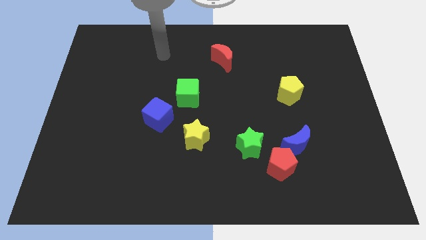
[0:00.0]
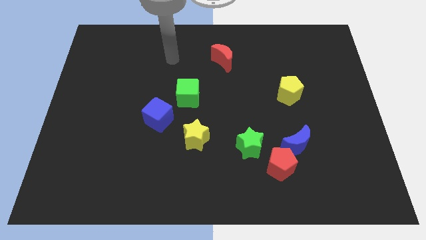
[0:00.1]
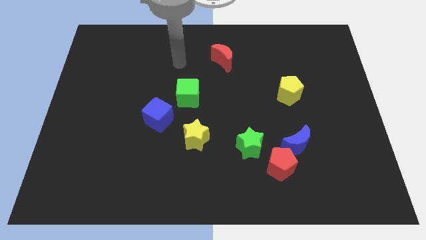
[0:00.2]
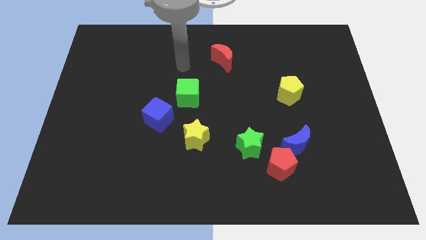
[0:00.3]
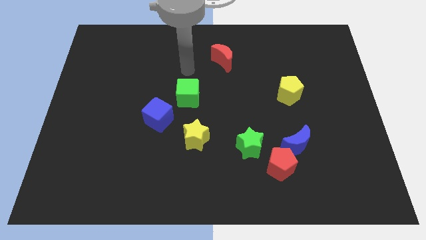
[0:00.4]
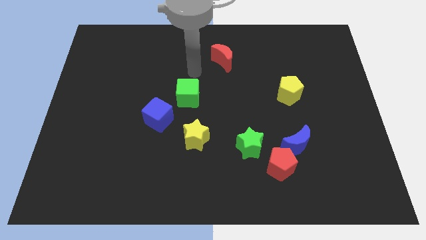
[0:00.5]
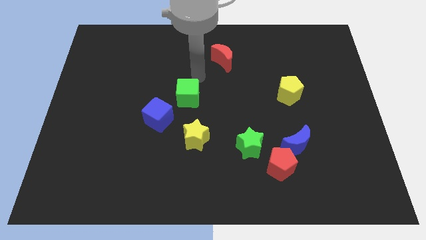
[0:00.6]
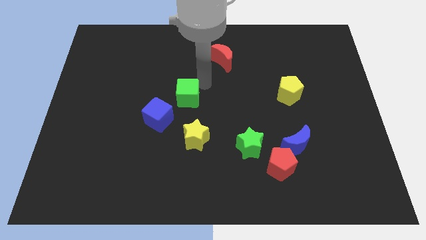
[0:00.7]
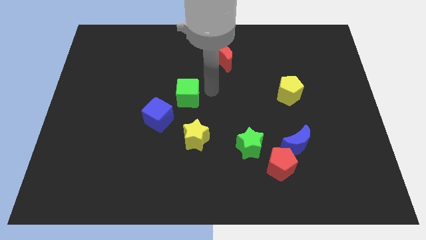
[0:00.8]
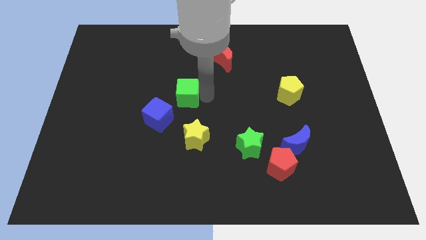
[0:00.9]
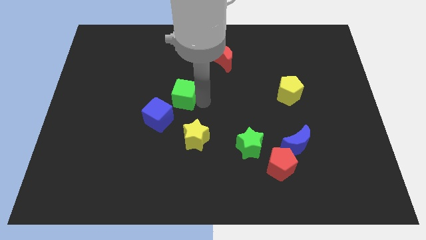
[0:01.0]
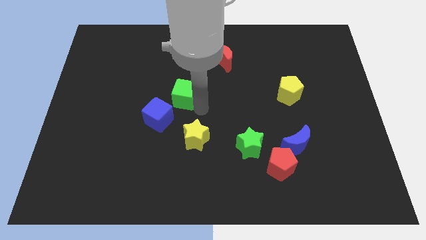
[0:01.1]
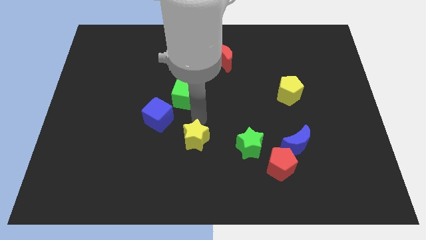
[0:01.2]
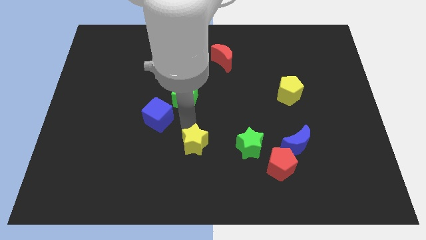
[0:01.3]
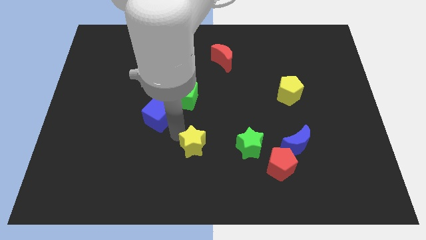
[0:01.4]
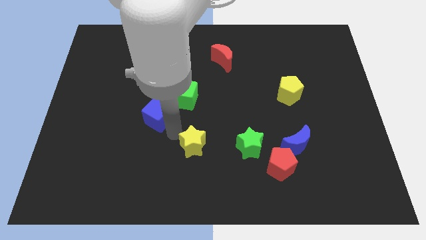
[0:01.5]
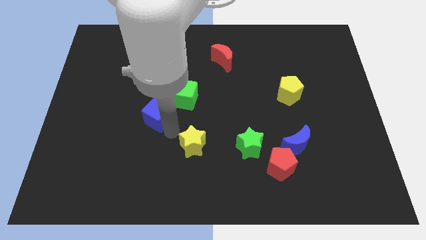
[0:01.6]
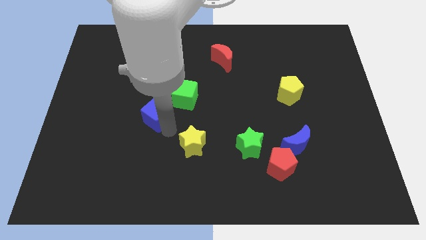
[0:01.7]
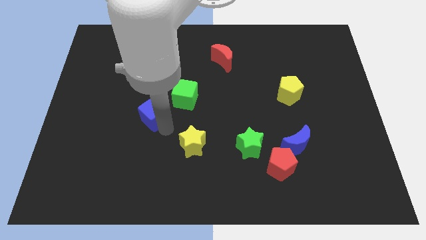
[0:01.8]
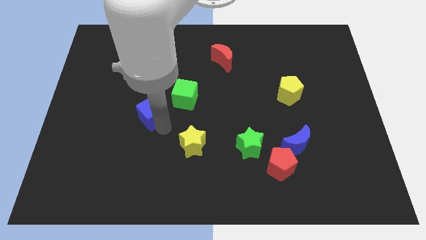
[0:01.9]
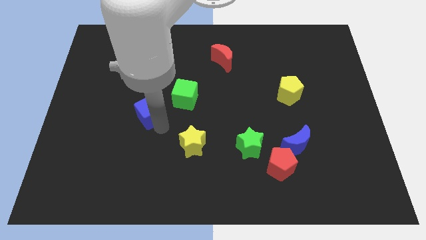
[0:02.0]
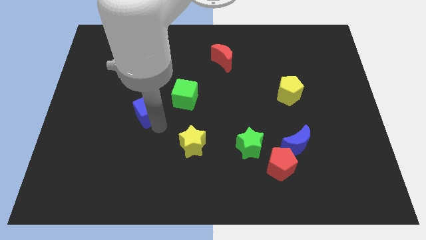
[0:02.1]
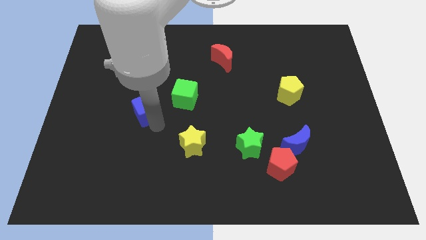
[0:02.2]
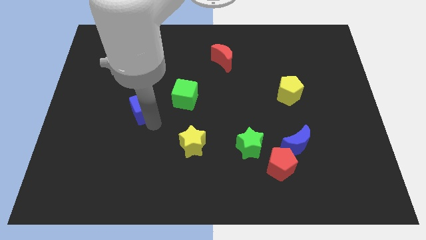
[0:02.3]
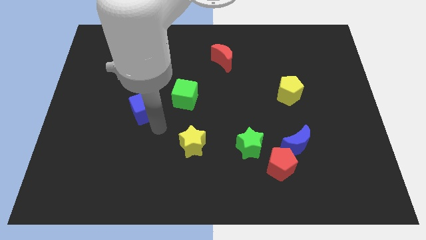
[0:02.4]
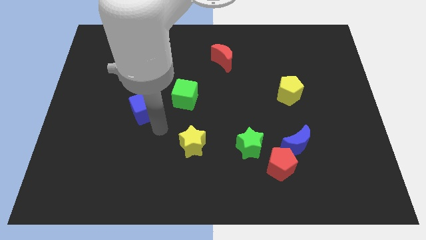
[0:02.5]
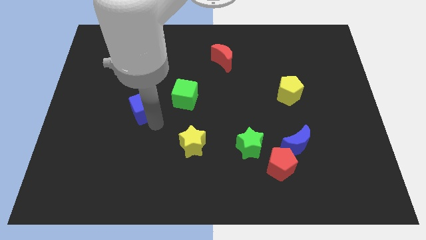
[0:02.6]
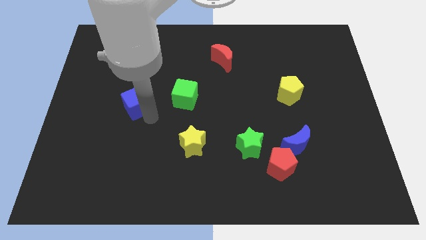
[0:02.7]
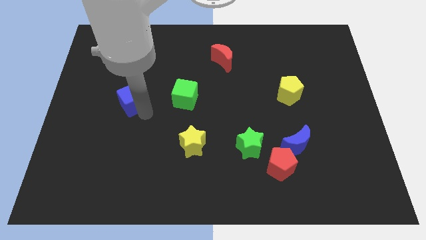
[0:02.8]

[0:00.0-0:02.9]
slightly slide the blue cube diagonally upwards and to the left

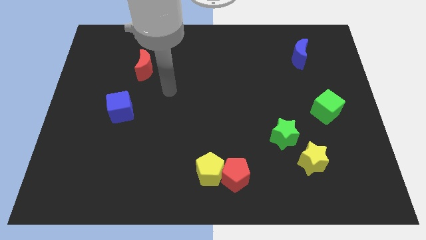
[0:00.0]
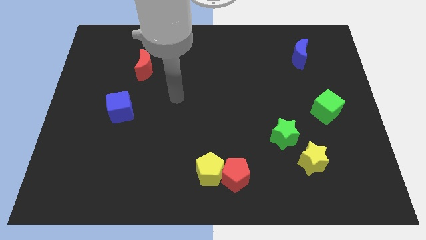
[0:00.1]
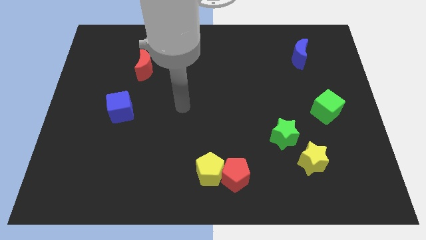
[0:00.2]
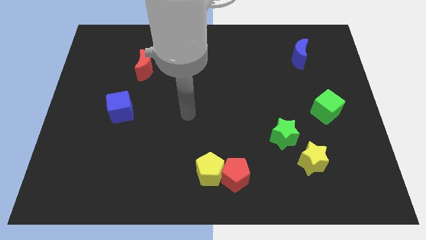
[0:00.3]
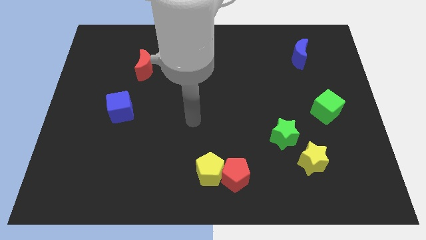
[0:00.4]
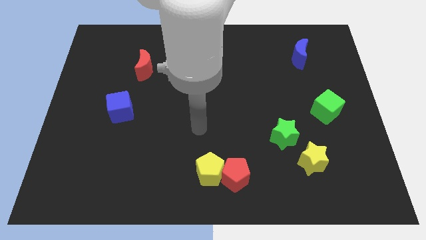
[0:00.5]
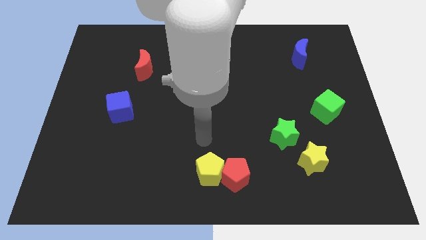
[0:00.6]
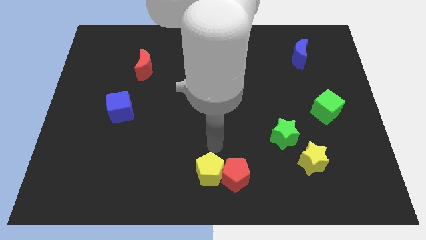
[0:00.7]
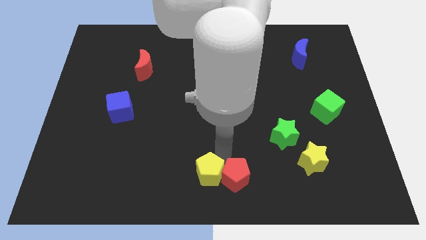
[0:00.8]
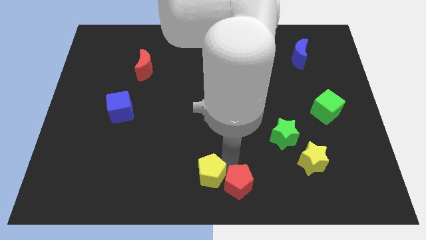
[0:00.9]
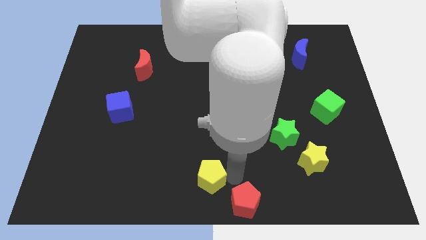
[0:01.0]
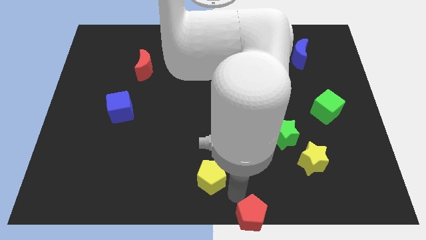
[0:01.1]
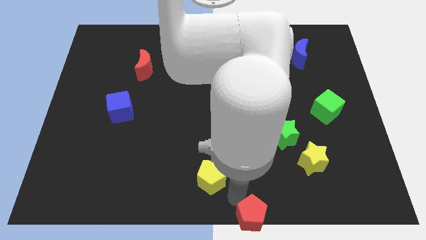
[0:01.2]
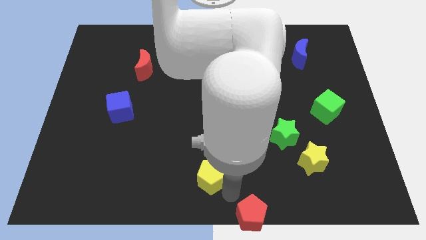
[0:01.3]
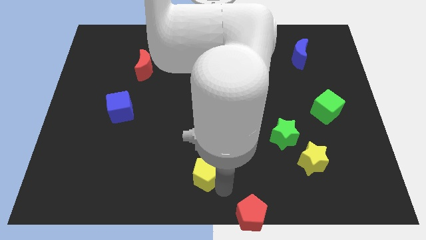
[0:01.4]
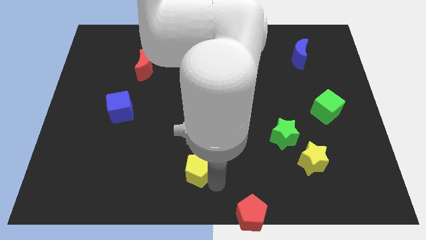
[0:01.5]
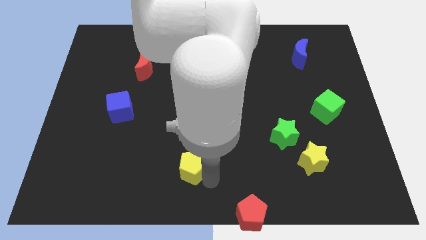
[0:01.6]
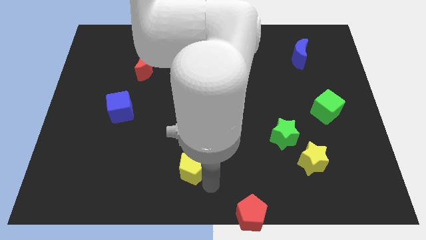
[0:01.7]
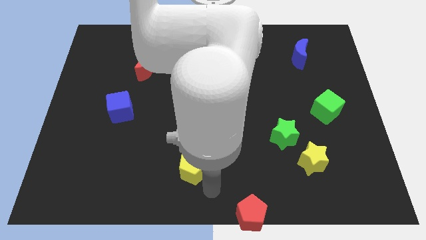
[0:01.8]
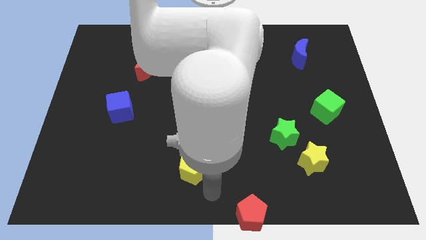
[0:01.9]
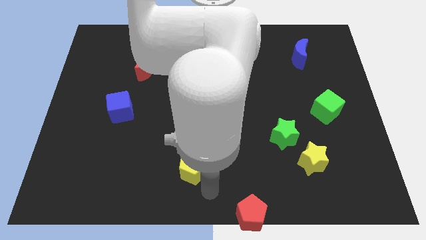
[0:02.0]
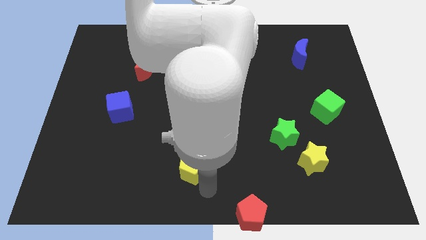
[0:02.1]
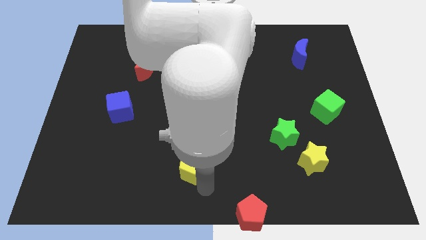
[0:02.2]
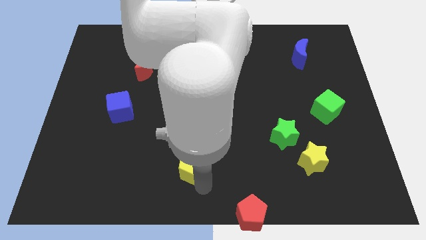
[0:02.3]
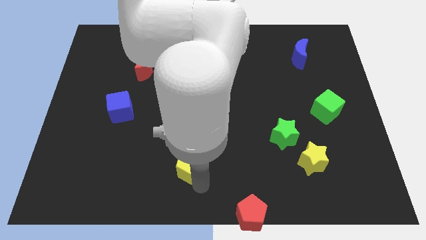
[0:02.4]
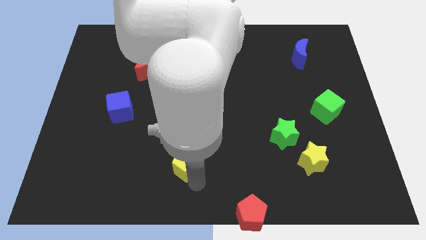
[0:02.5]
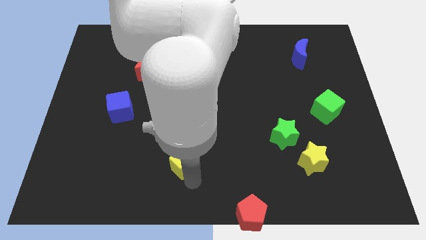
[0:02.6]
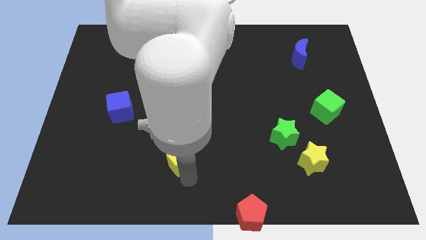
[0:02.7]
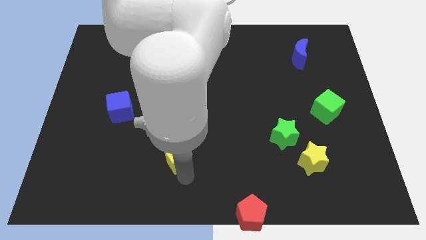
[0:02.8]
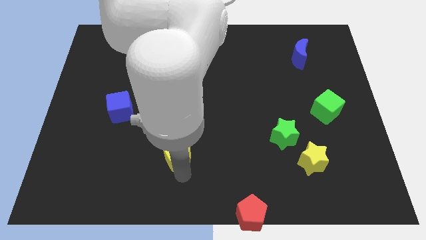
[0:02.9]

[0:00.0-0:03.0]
push the yellow pentagon a bit upwards and to the left diagonally

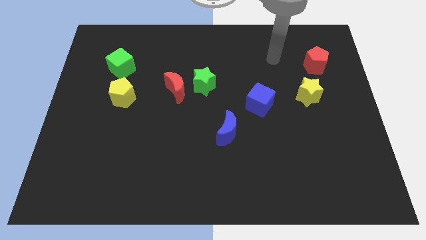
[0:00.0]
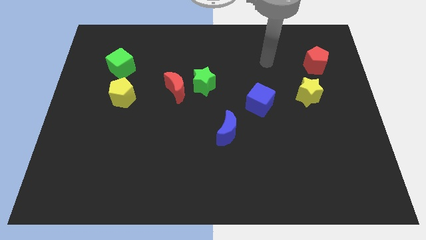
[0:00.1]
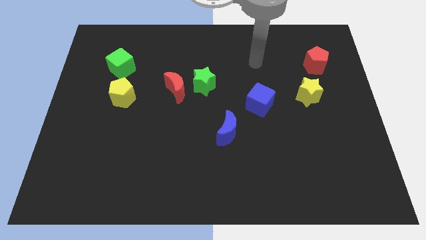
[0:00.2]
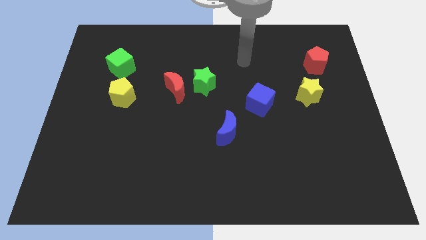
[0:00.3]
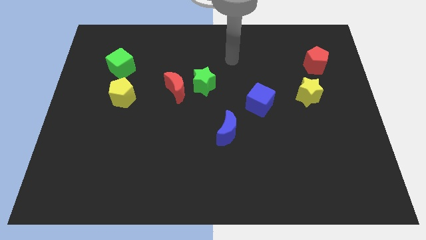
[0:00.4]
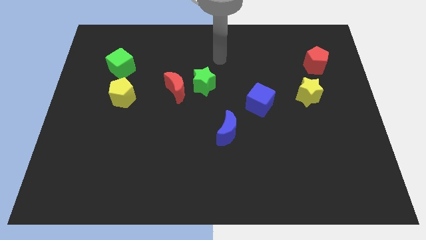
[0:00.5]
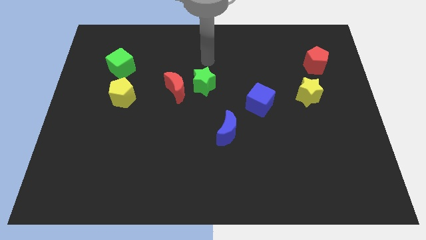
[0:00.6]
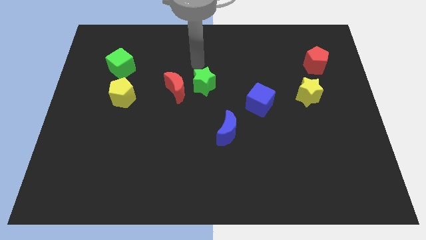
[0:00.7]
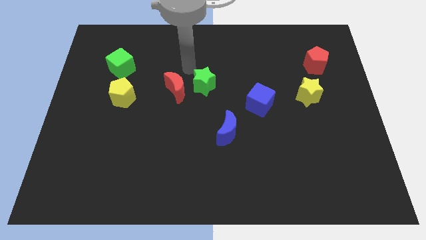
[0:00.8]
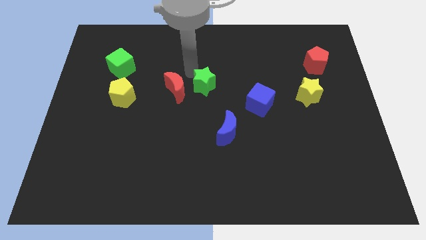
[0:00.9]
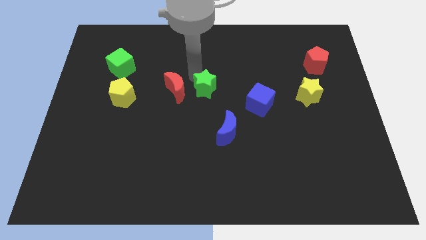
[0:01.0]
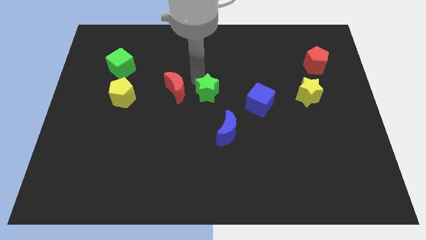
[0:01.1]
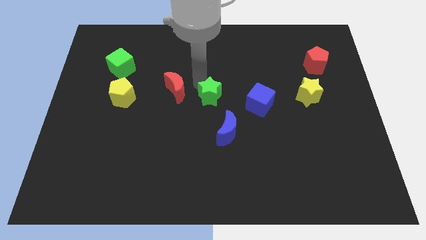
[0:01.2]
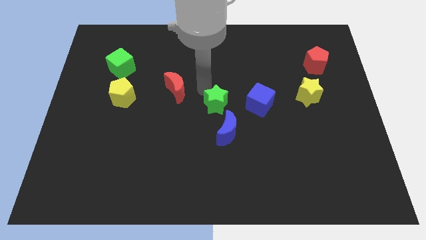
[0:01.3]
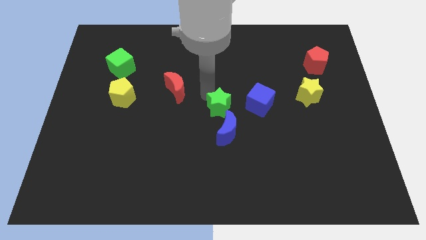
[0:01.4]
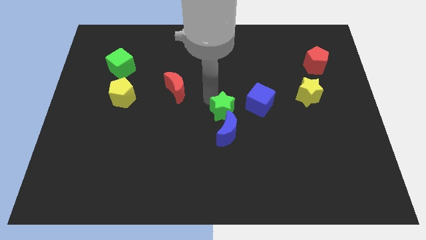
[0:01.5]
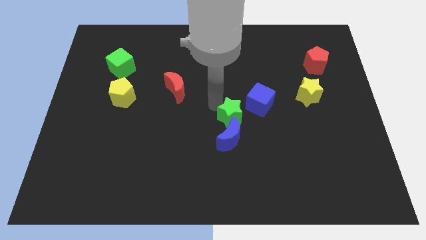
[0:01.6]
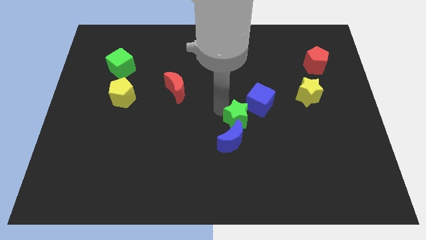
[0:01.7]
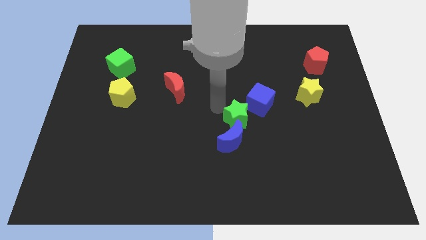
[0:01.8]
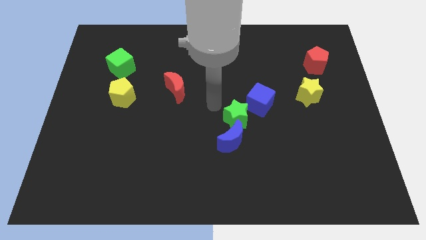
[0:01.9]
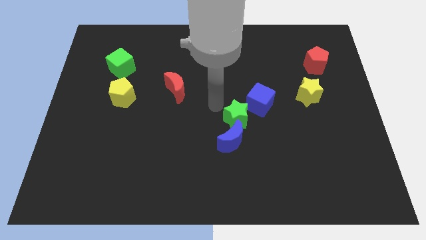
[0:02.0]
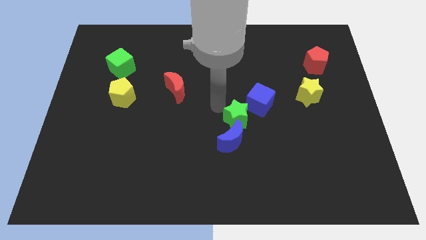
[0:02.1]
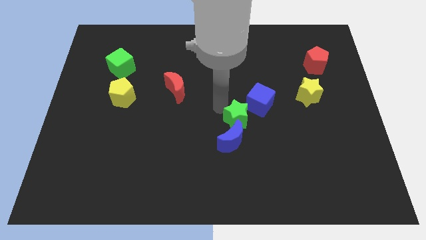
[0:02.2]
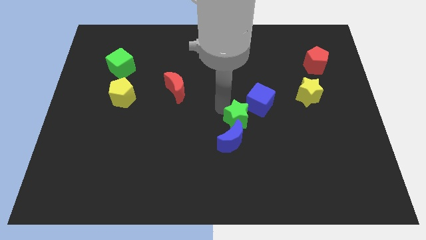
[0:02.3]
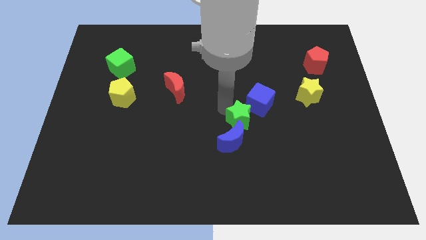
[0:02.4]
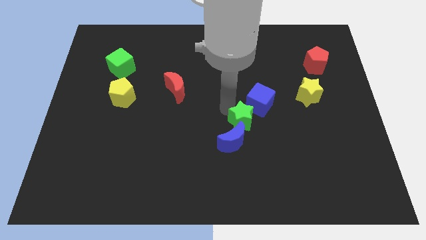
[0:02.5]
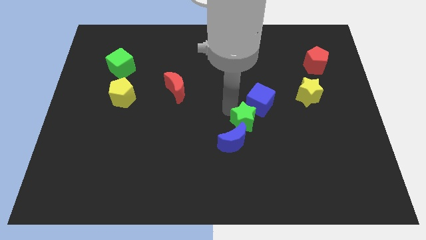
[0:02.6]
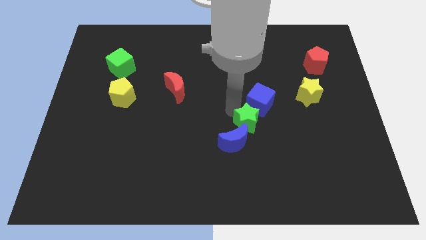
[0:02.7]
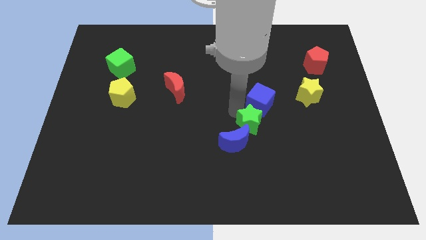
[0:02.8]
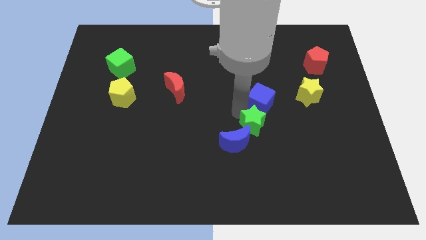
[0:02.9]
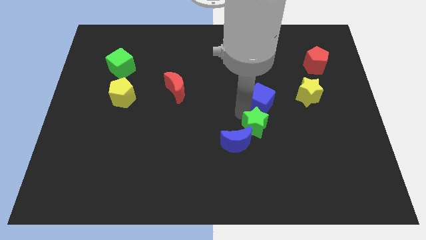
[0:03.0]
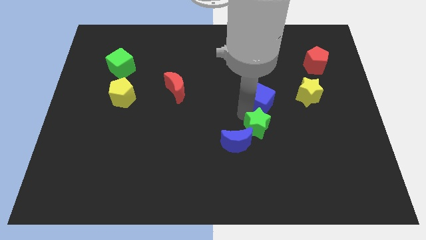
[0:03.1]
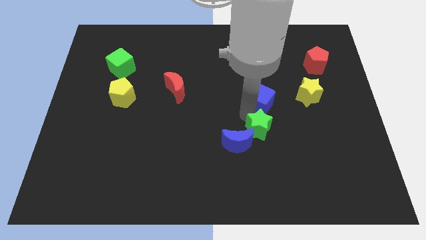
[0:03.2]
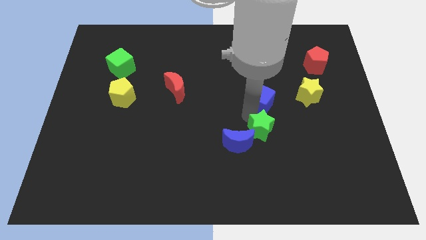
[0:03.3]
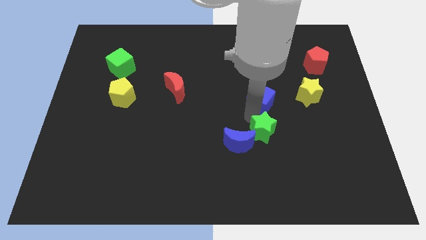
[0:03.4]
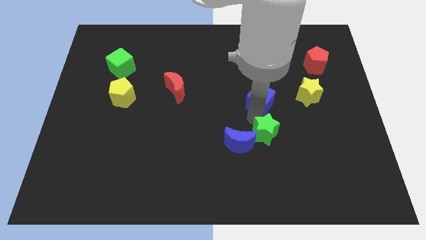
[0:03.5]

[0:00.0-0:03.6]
push the green star downwards and then to the right
